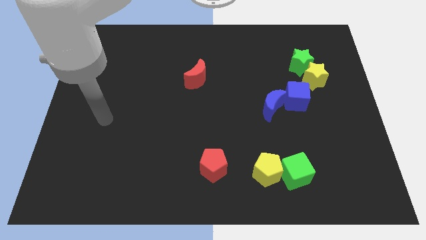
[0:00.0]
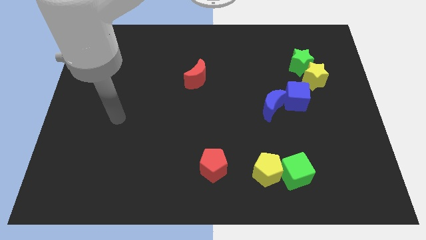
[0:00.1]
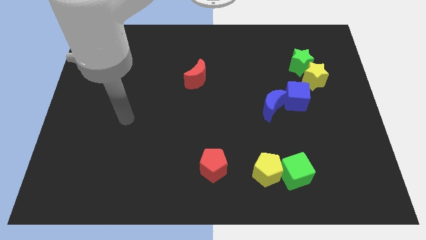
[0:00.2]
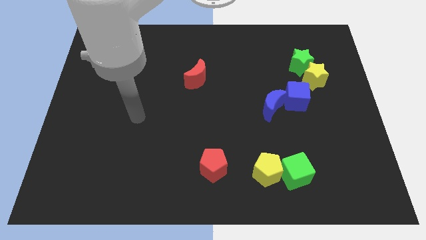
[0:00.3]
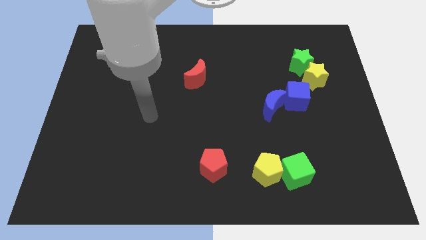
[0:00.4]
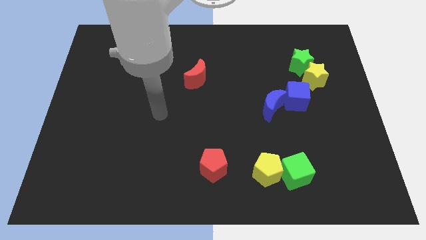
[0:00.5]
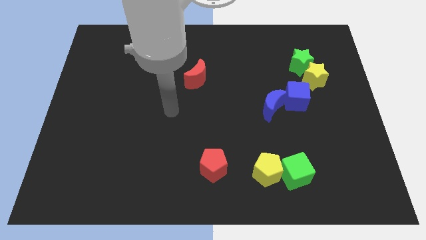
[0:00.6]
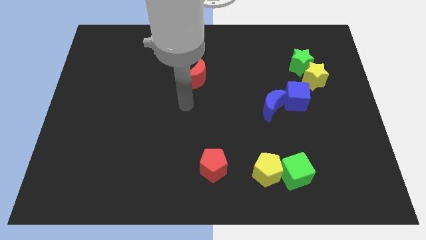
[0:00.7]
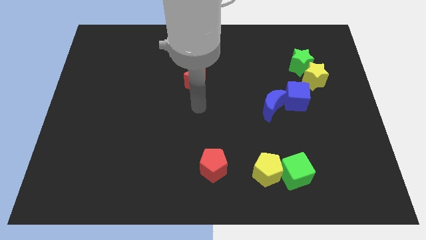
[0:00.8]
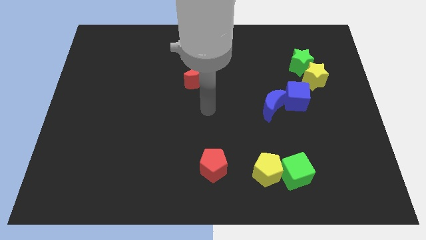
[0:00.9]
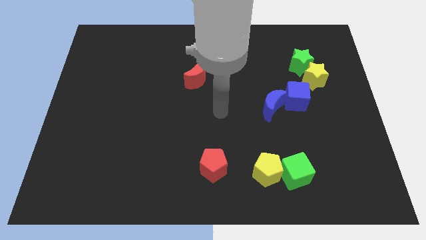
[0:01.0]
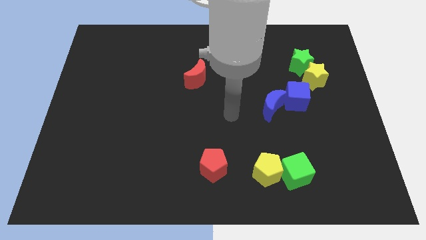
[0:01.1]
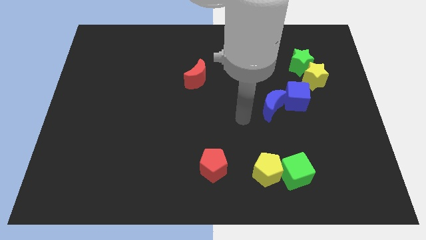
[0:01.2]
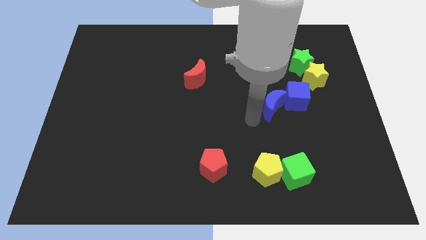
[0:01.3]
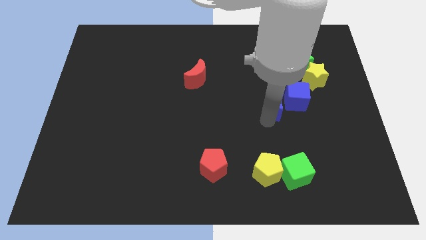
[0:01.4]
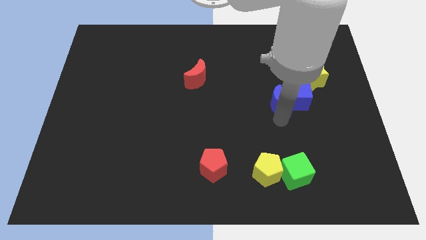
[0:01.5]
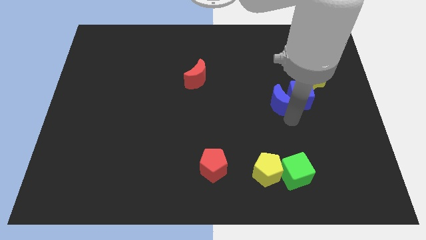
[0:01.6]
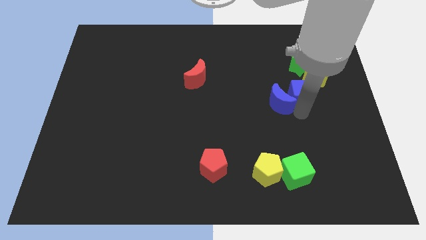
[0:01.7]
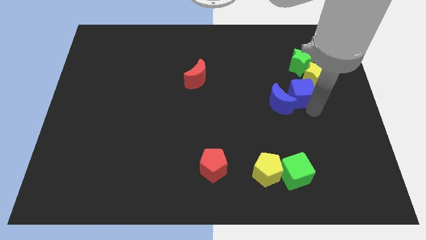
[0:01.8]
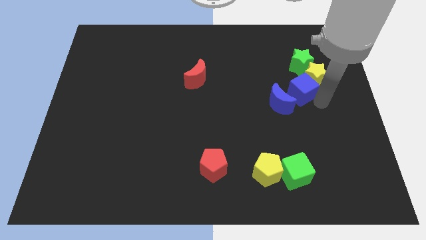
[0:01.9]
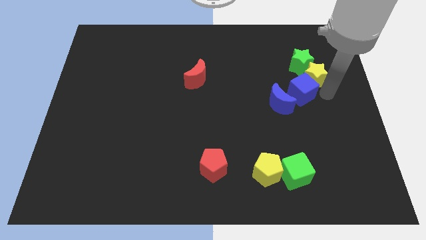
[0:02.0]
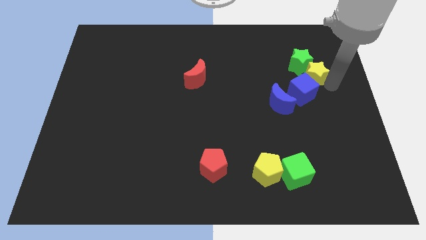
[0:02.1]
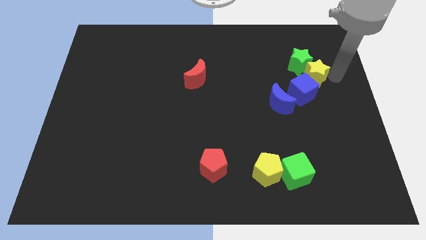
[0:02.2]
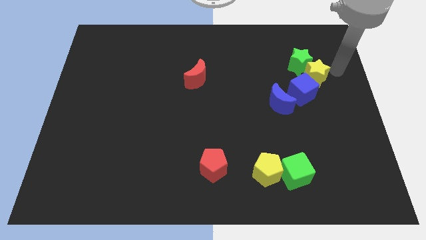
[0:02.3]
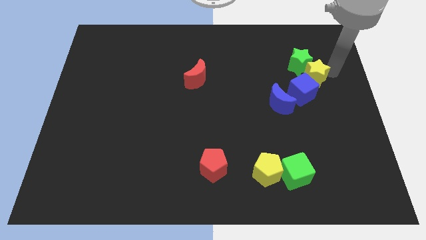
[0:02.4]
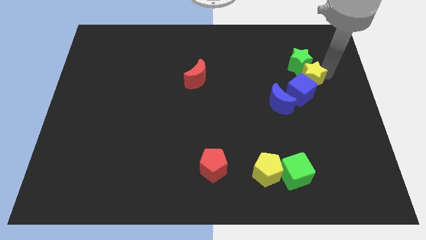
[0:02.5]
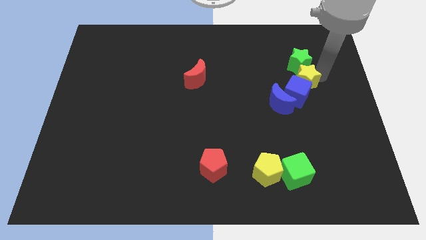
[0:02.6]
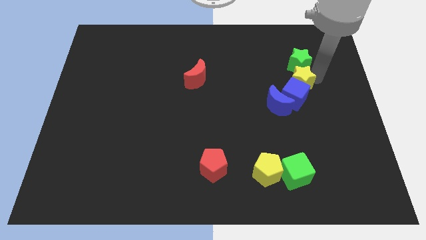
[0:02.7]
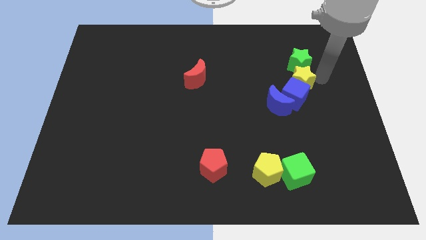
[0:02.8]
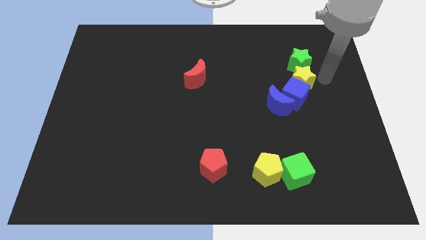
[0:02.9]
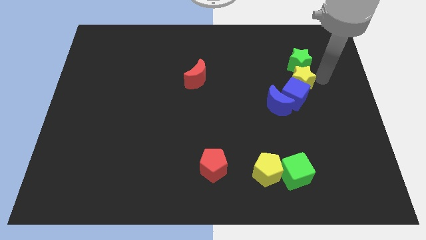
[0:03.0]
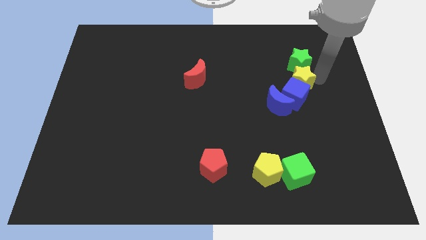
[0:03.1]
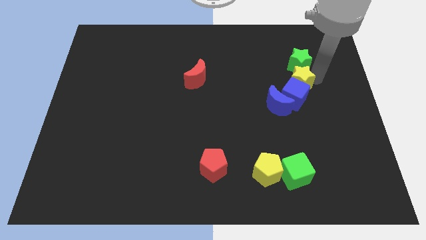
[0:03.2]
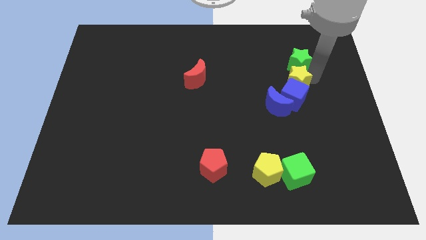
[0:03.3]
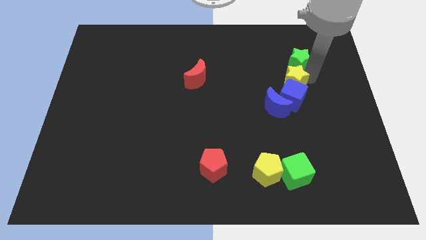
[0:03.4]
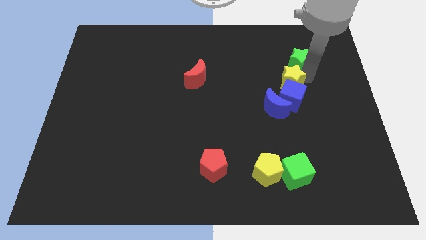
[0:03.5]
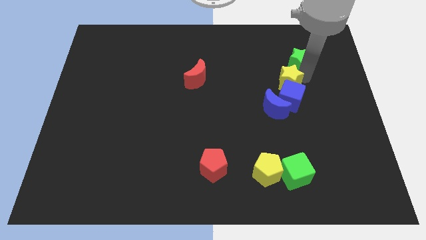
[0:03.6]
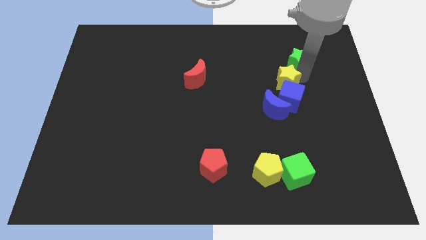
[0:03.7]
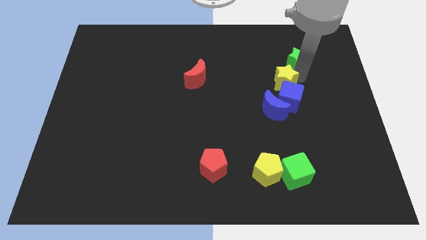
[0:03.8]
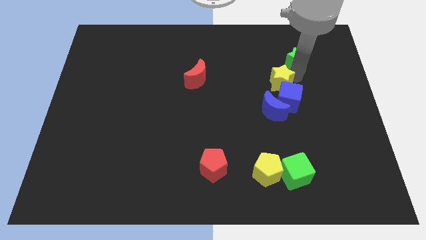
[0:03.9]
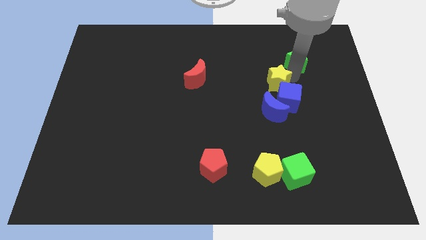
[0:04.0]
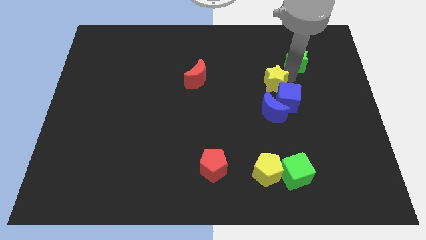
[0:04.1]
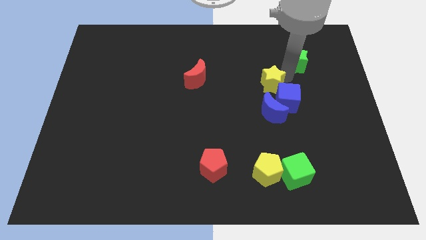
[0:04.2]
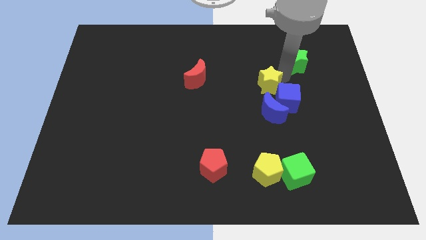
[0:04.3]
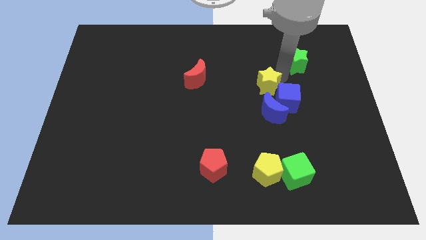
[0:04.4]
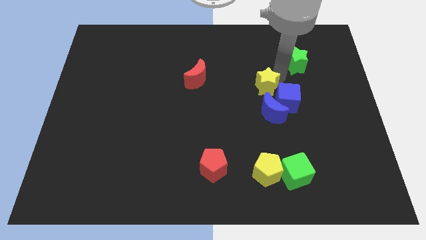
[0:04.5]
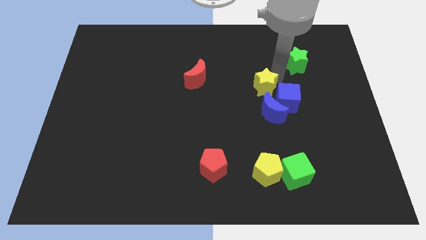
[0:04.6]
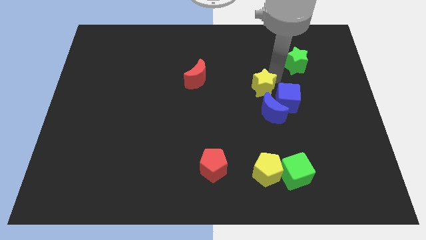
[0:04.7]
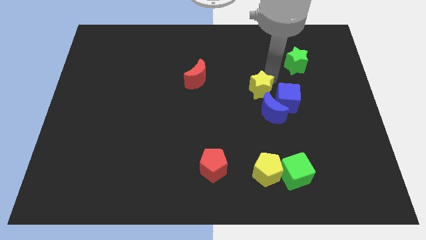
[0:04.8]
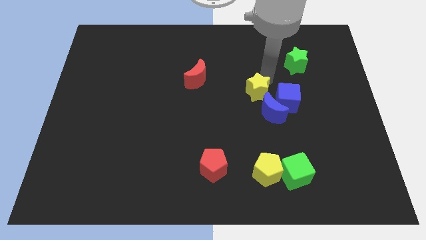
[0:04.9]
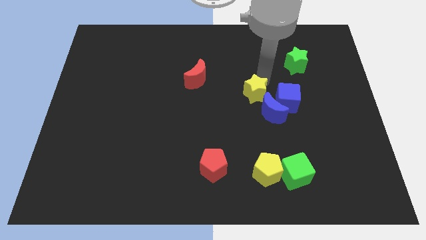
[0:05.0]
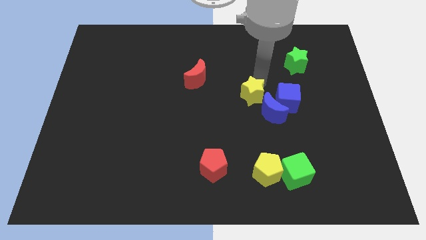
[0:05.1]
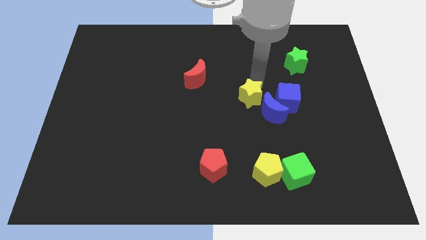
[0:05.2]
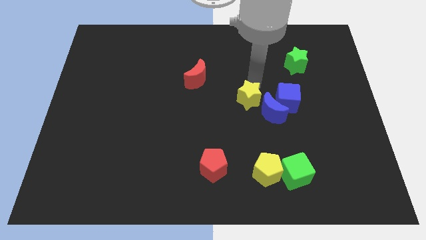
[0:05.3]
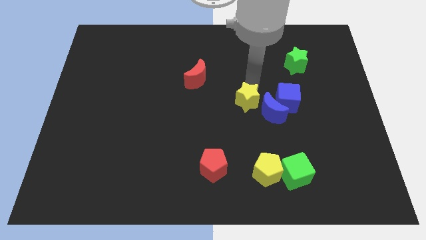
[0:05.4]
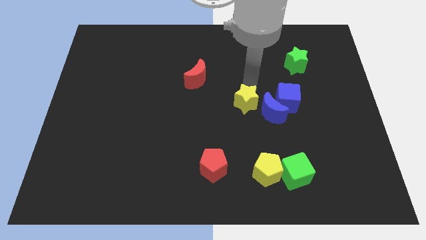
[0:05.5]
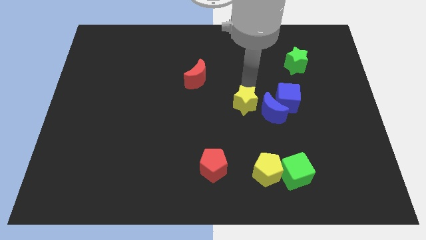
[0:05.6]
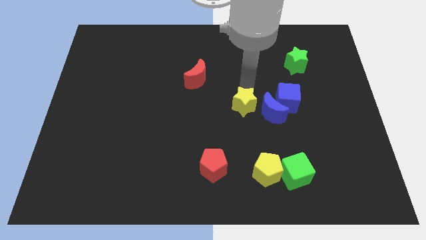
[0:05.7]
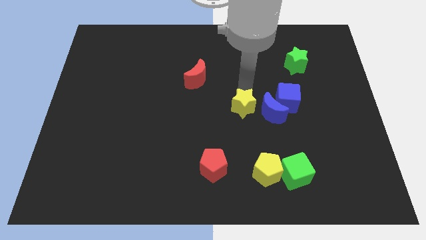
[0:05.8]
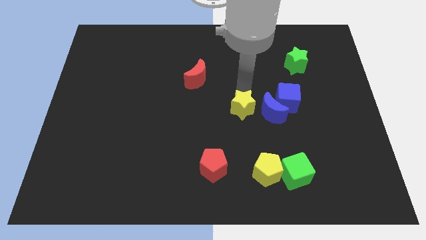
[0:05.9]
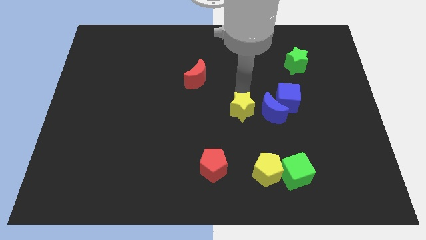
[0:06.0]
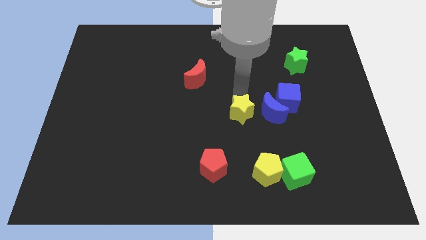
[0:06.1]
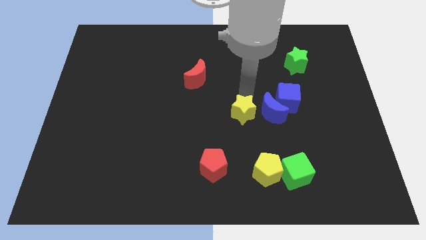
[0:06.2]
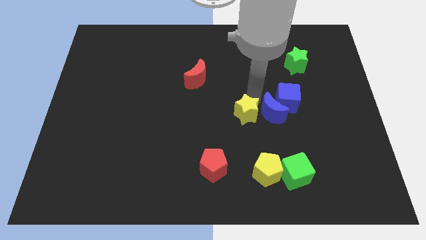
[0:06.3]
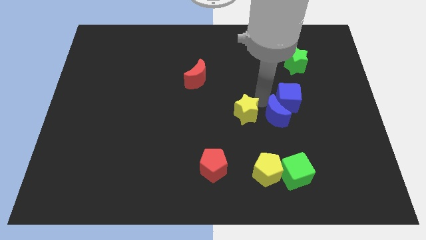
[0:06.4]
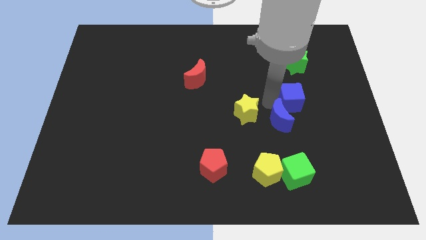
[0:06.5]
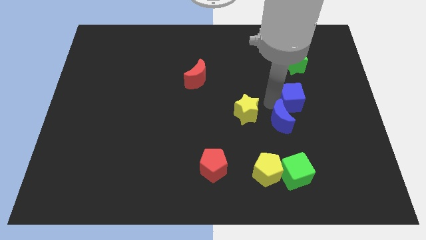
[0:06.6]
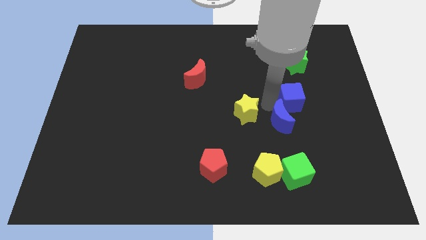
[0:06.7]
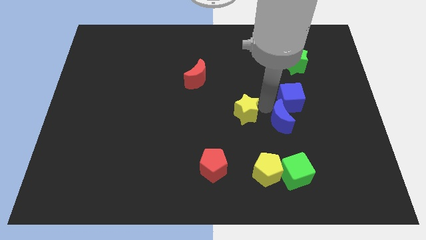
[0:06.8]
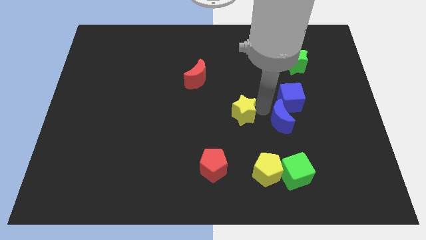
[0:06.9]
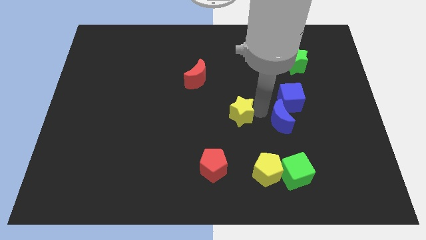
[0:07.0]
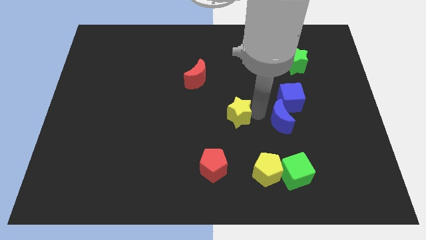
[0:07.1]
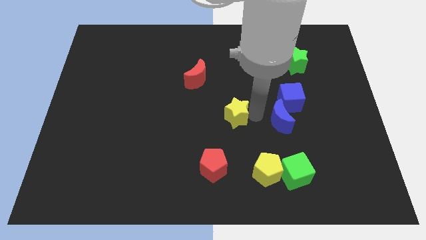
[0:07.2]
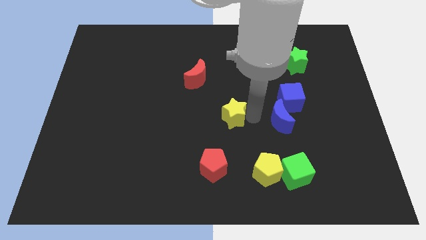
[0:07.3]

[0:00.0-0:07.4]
slide the yellow star above the red pentagon
